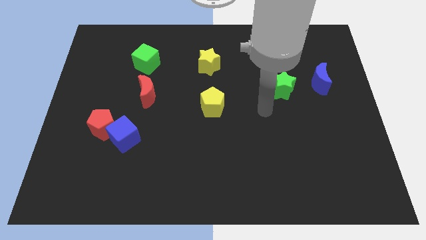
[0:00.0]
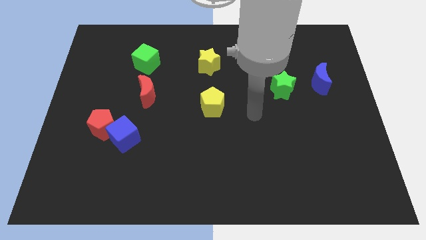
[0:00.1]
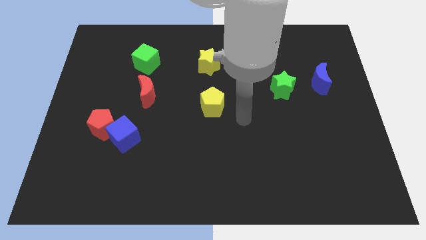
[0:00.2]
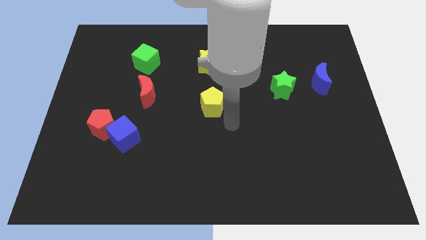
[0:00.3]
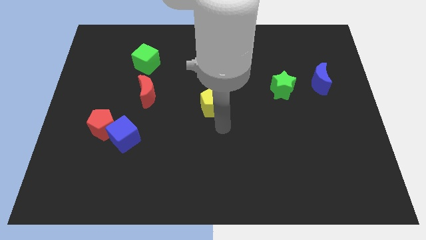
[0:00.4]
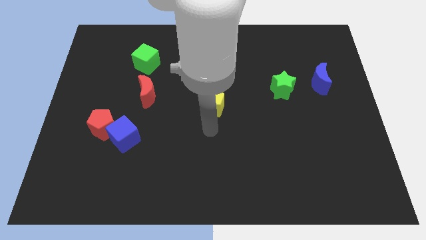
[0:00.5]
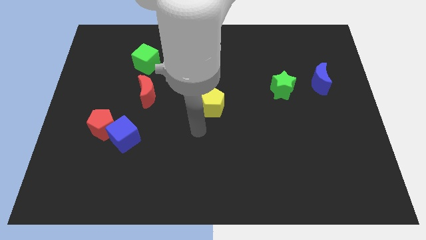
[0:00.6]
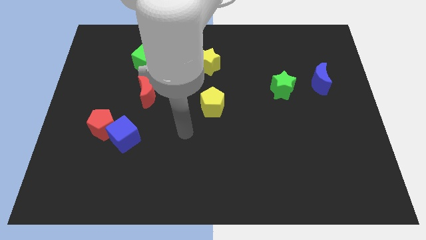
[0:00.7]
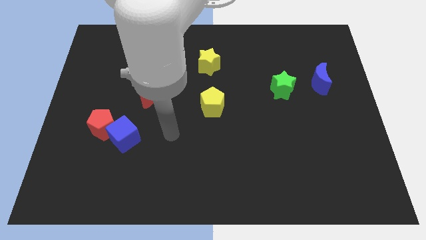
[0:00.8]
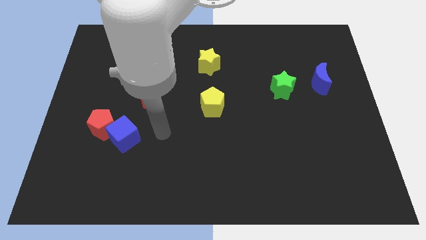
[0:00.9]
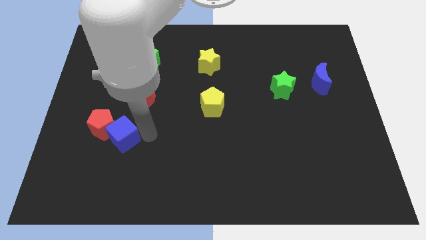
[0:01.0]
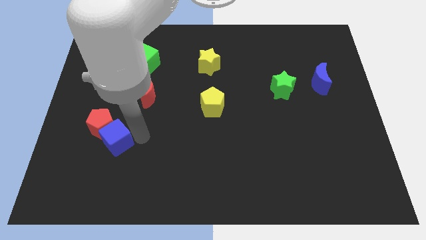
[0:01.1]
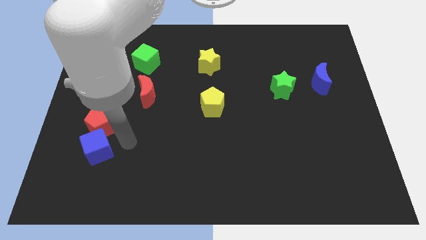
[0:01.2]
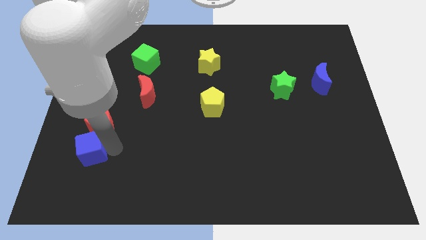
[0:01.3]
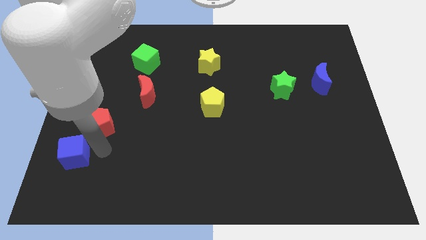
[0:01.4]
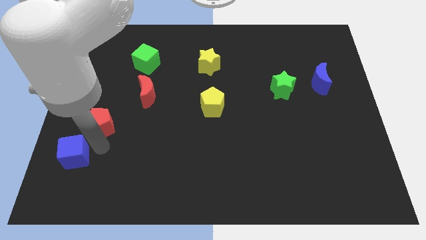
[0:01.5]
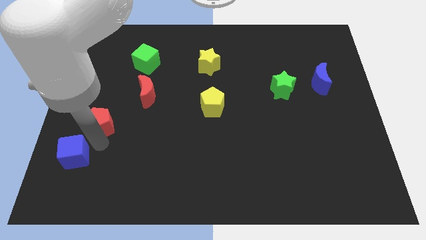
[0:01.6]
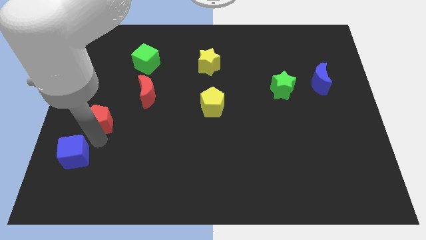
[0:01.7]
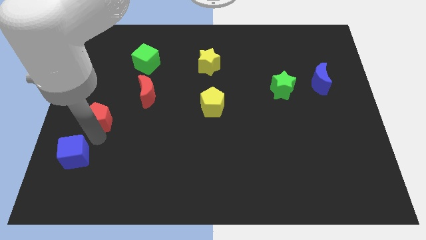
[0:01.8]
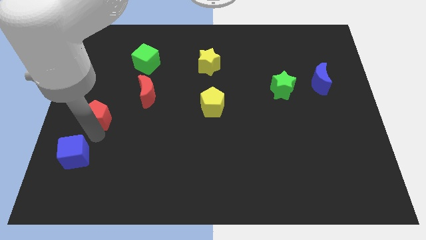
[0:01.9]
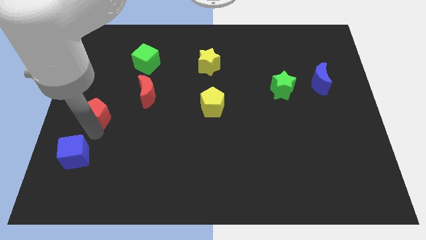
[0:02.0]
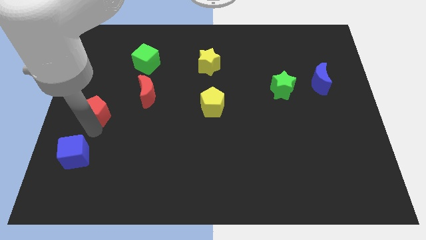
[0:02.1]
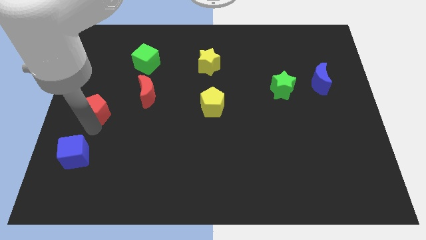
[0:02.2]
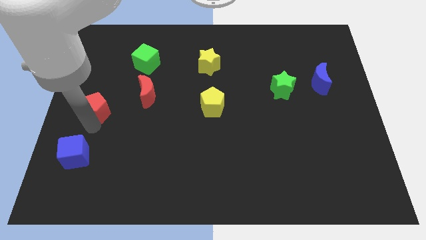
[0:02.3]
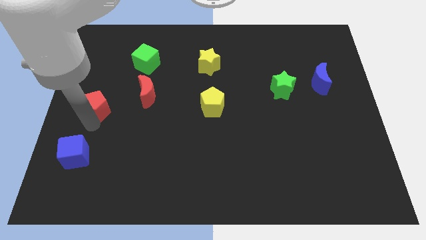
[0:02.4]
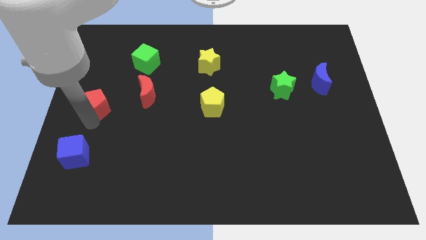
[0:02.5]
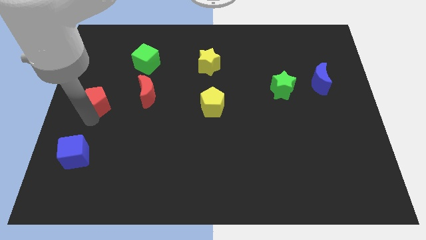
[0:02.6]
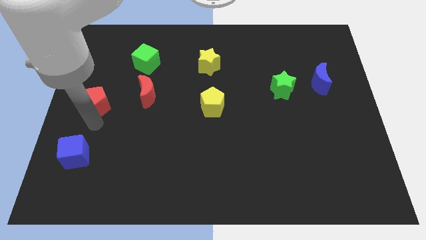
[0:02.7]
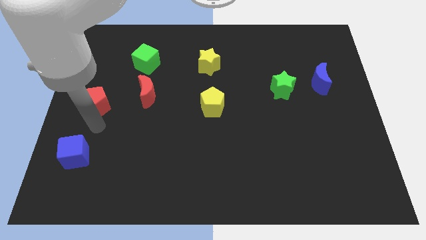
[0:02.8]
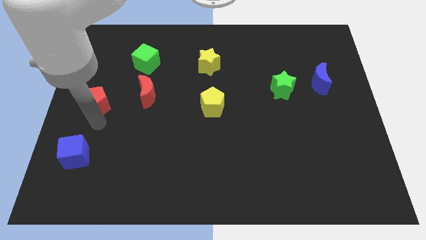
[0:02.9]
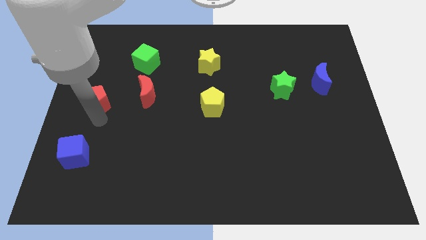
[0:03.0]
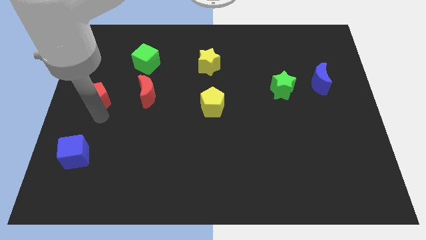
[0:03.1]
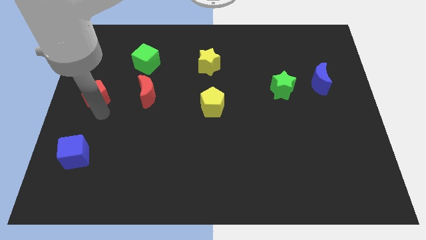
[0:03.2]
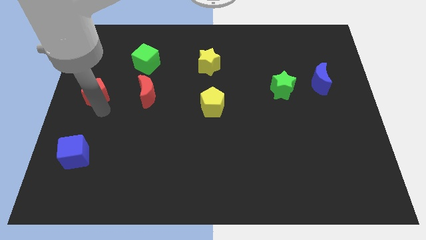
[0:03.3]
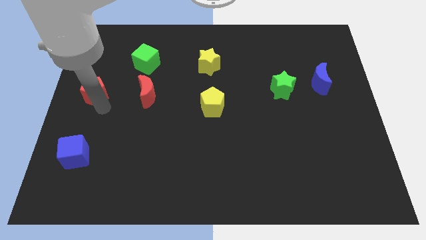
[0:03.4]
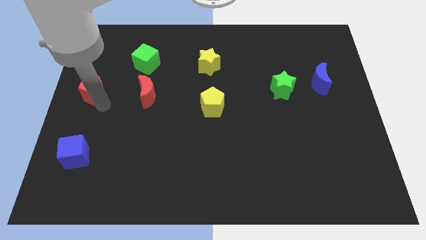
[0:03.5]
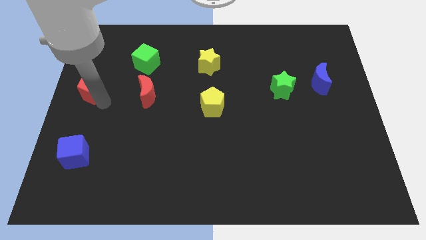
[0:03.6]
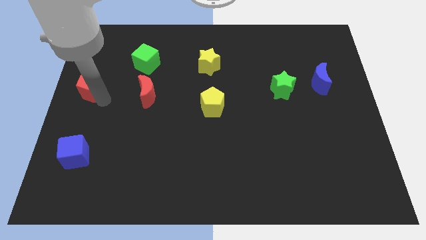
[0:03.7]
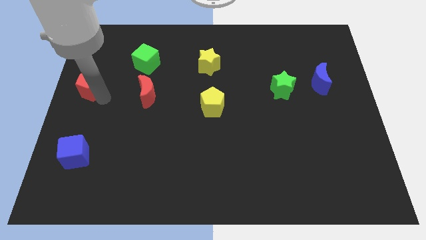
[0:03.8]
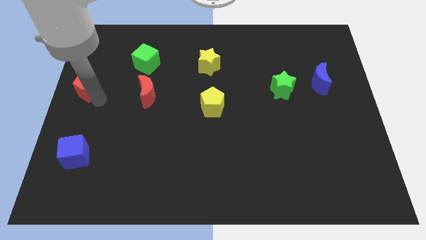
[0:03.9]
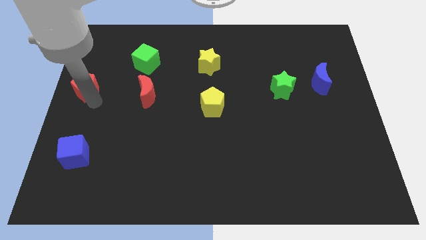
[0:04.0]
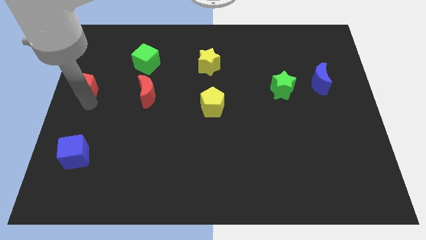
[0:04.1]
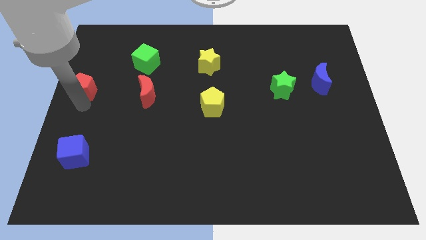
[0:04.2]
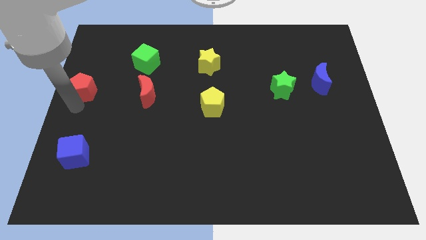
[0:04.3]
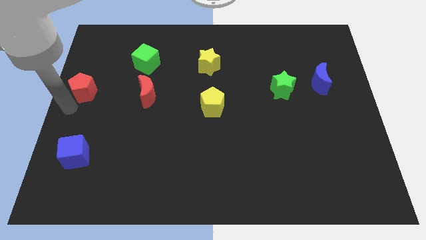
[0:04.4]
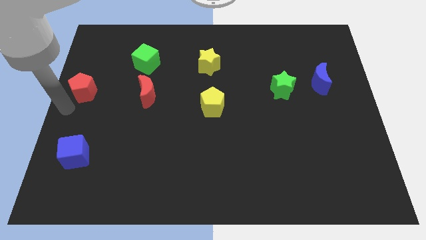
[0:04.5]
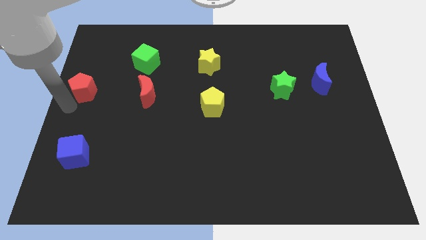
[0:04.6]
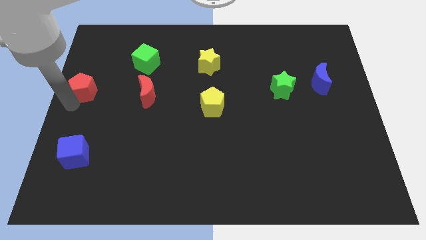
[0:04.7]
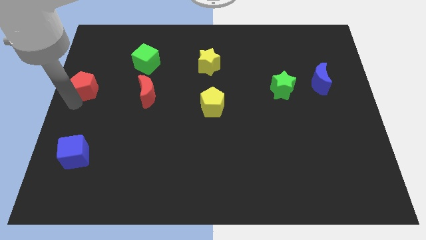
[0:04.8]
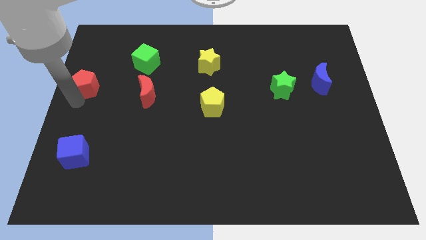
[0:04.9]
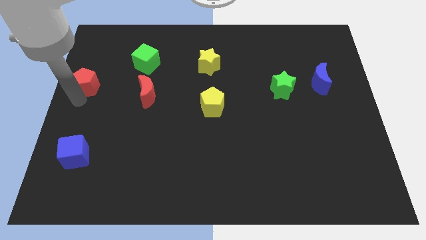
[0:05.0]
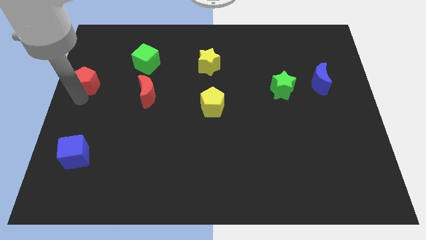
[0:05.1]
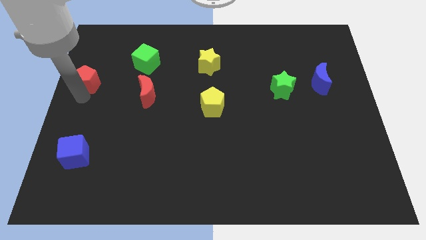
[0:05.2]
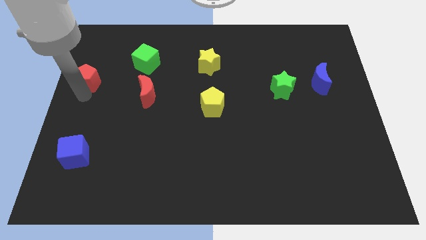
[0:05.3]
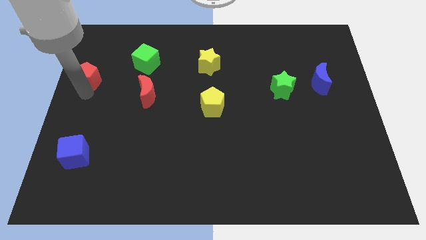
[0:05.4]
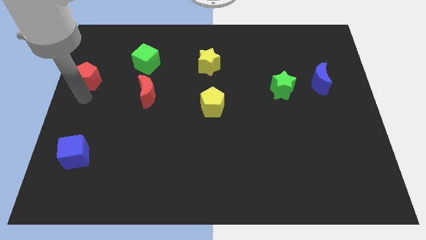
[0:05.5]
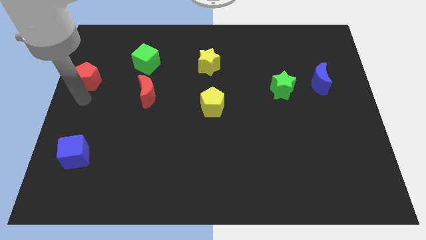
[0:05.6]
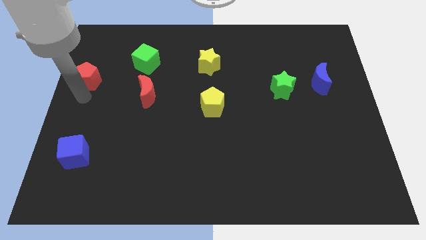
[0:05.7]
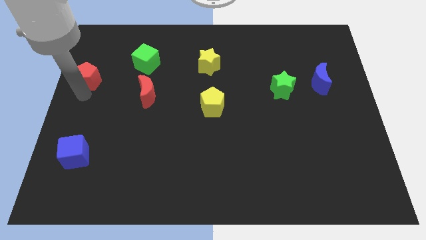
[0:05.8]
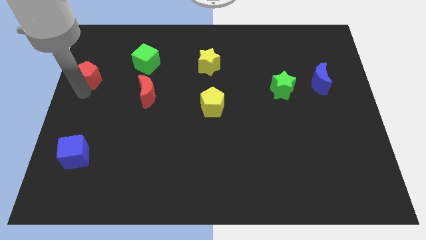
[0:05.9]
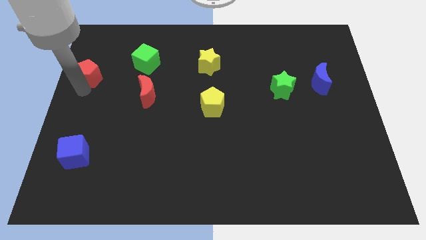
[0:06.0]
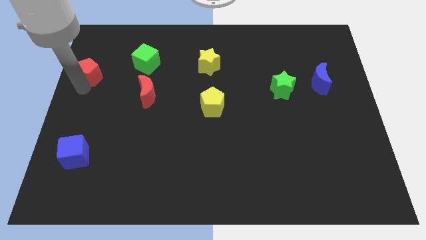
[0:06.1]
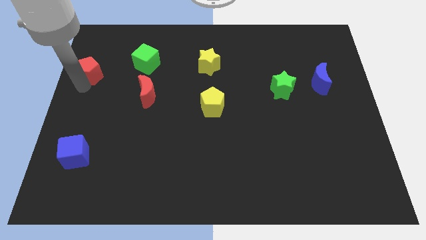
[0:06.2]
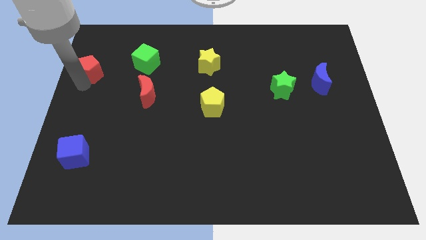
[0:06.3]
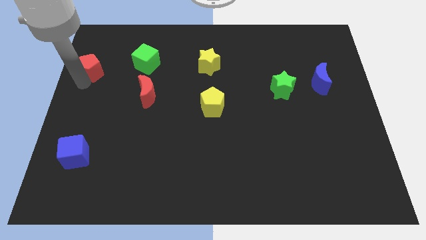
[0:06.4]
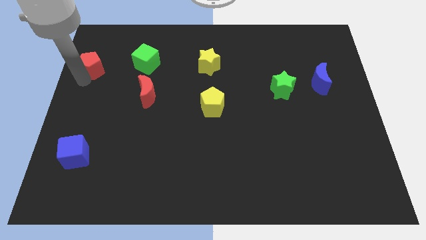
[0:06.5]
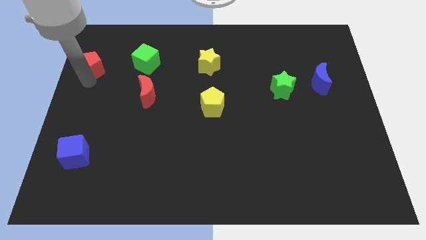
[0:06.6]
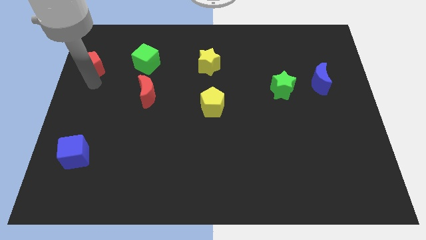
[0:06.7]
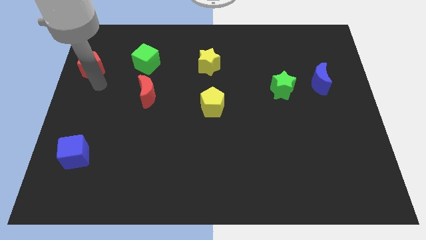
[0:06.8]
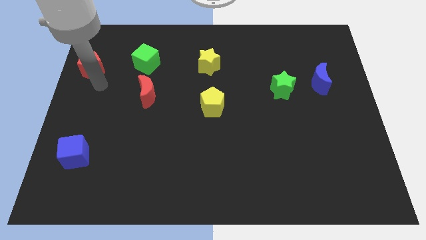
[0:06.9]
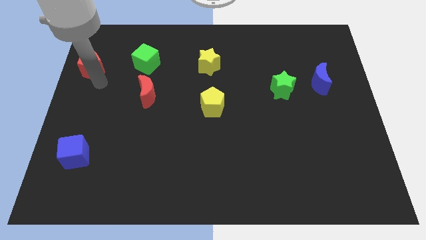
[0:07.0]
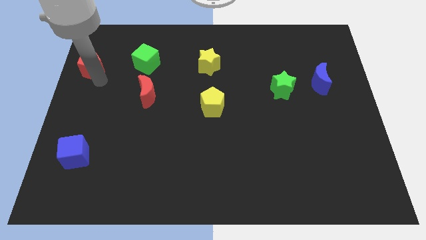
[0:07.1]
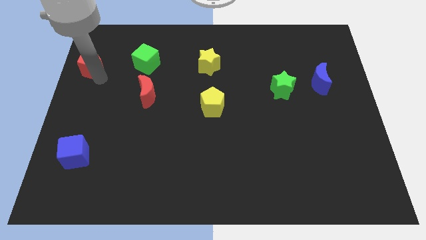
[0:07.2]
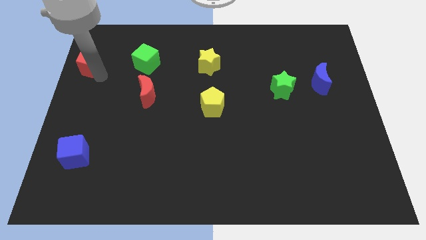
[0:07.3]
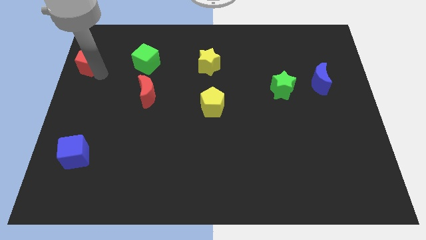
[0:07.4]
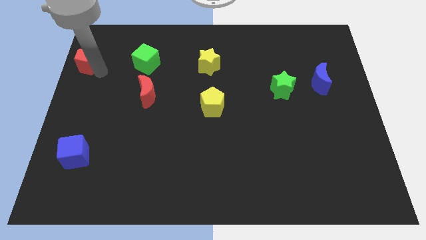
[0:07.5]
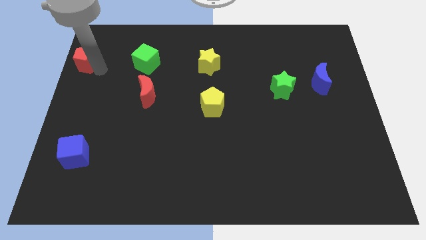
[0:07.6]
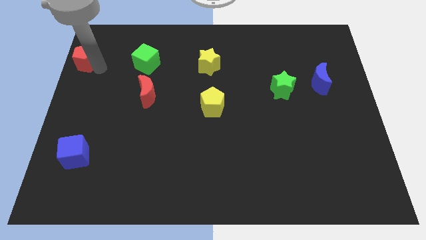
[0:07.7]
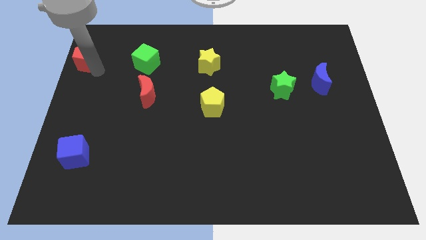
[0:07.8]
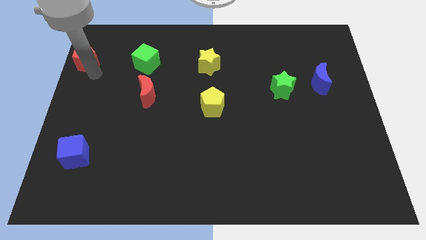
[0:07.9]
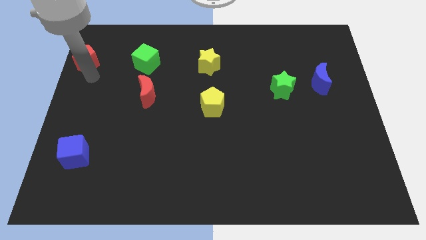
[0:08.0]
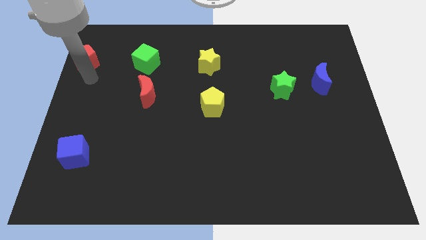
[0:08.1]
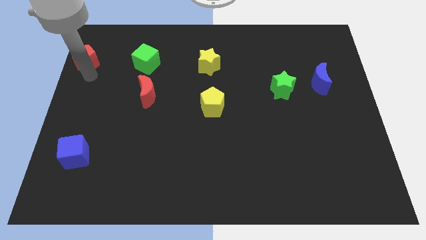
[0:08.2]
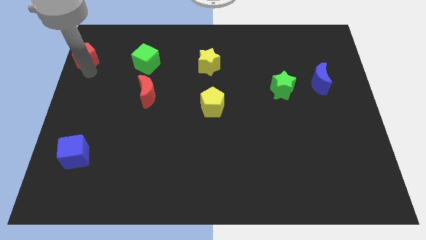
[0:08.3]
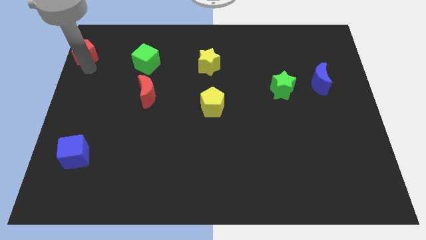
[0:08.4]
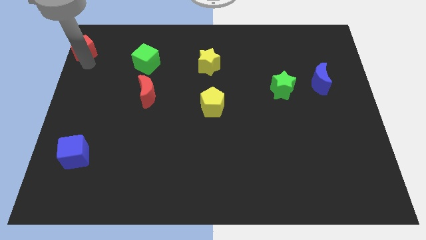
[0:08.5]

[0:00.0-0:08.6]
put the red pentagon to the top left of the board
